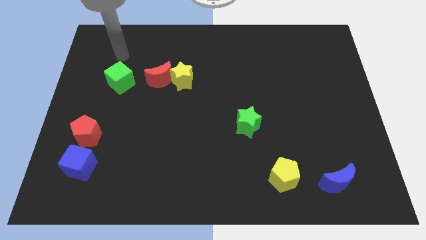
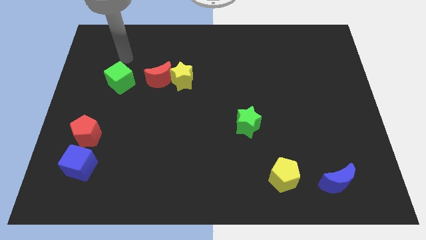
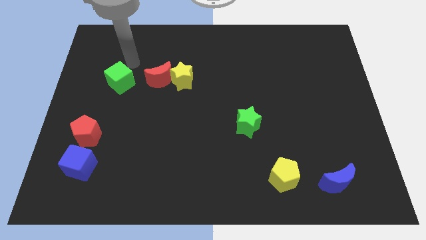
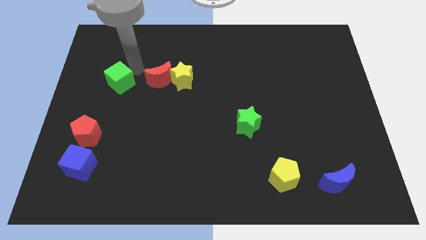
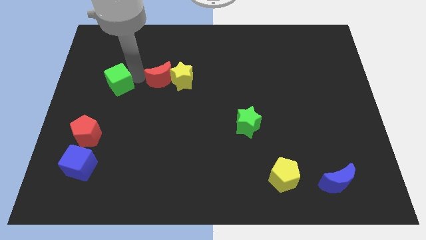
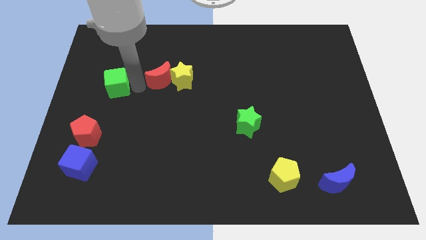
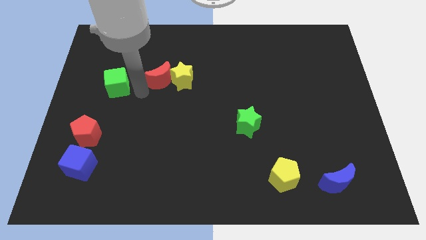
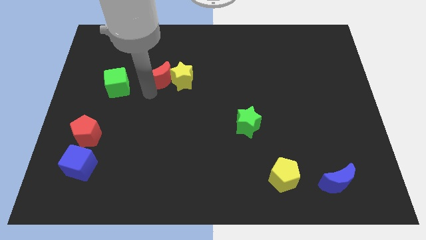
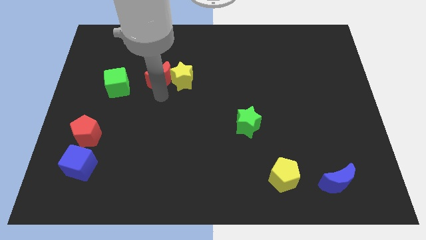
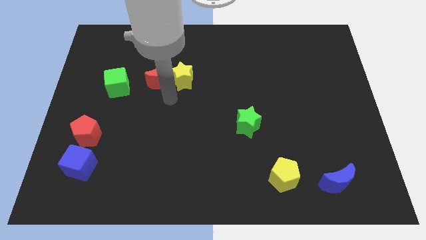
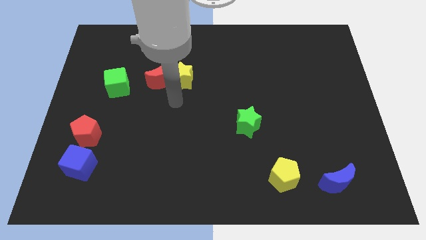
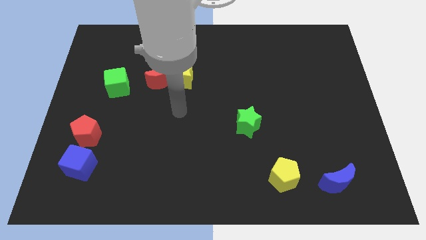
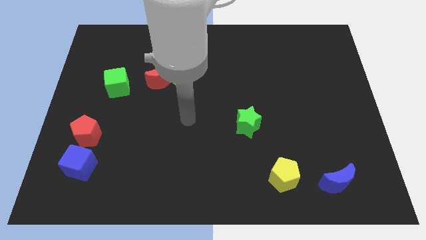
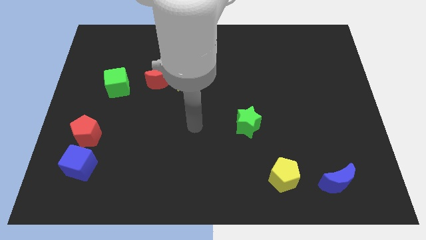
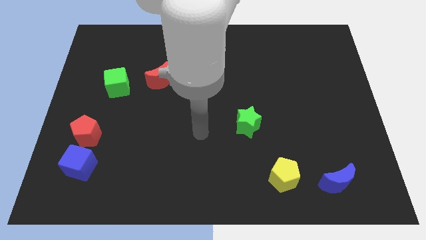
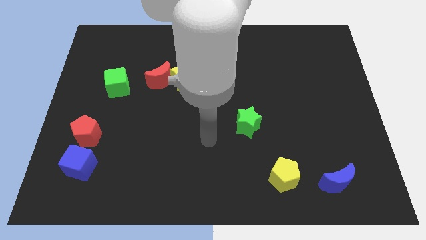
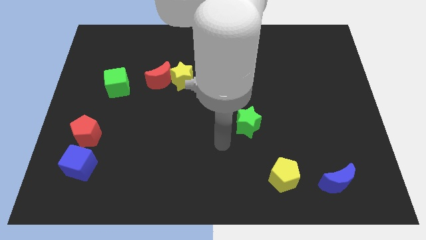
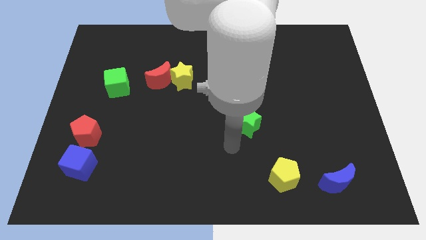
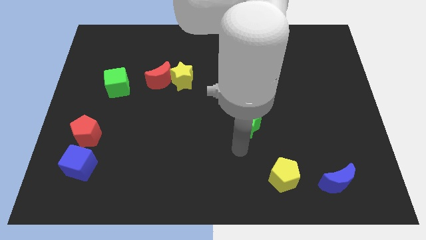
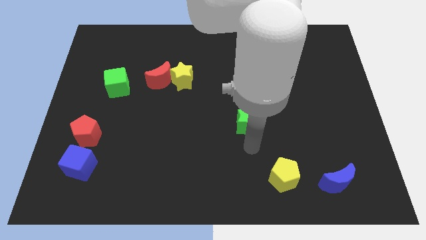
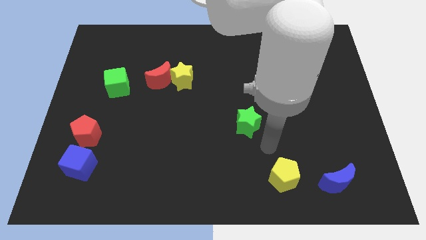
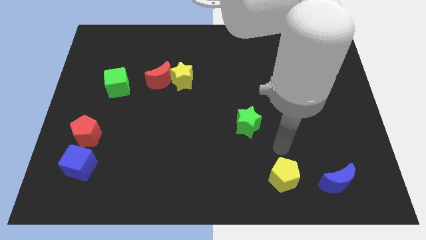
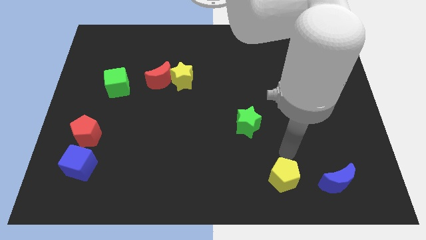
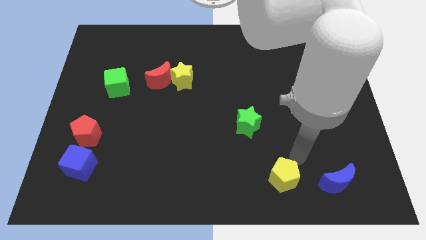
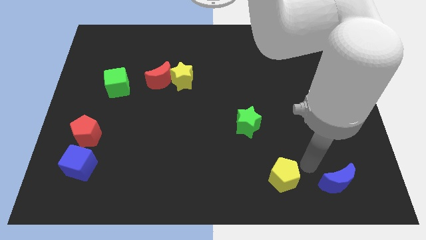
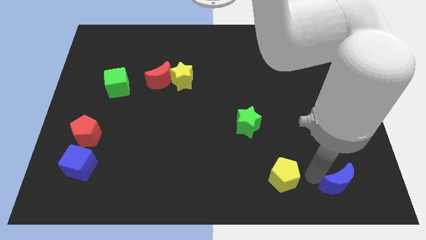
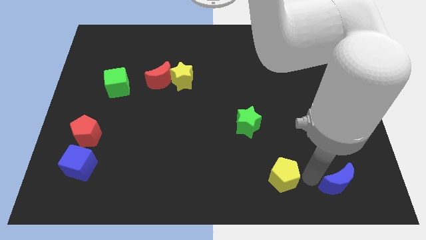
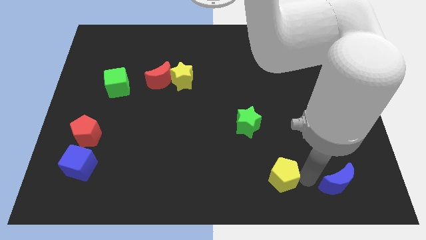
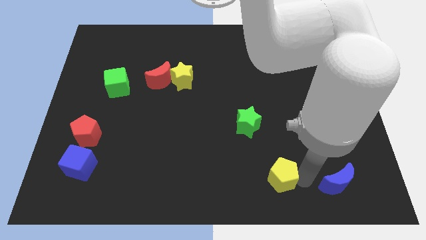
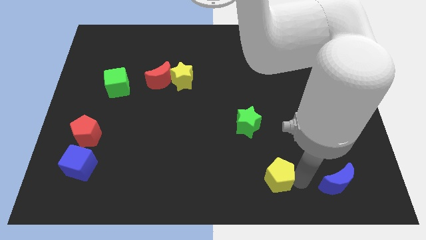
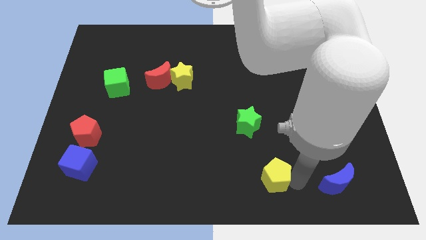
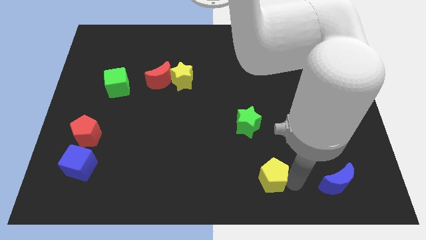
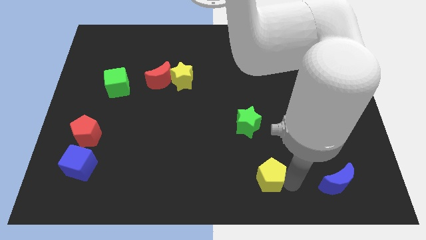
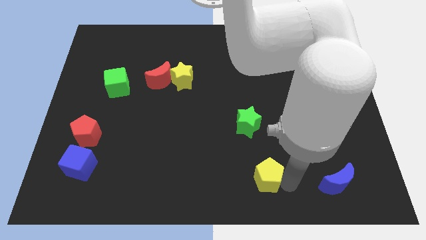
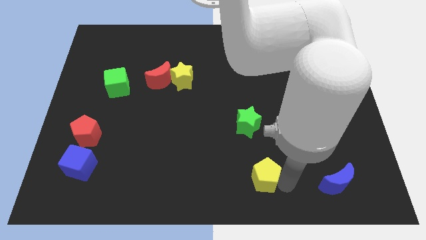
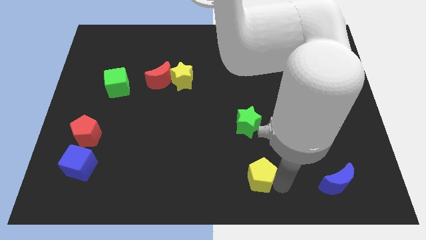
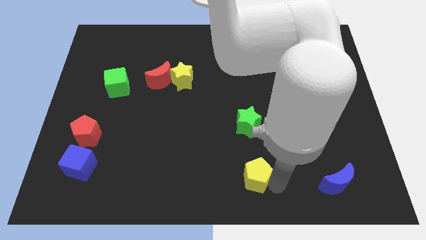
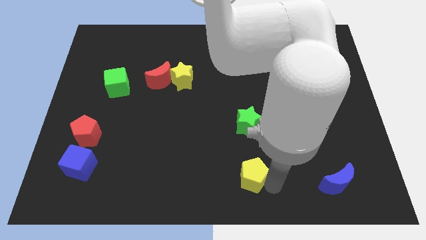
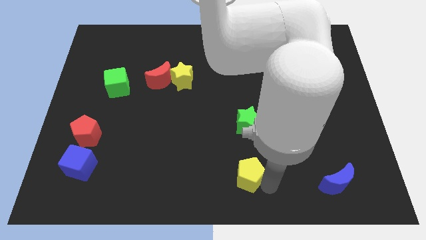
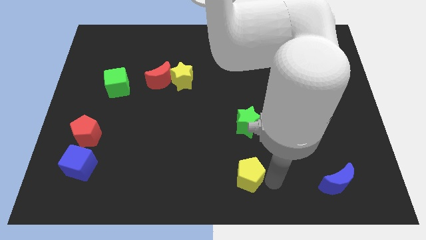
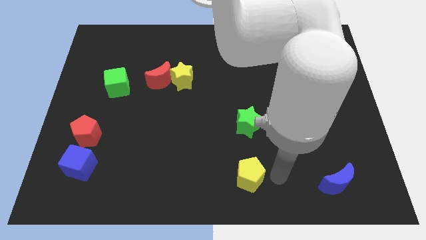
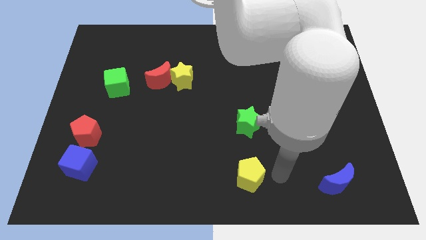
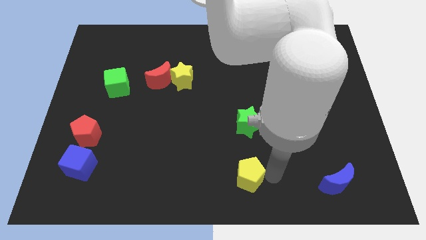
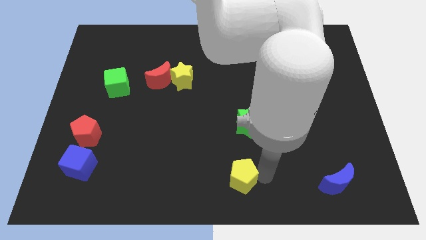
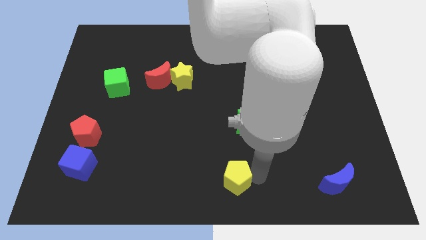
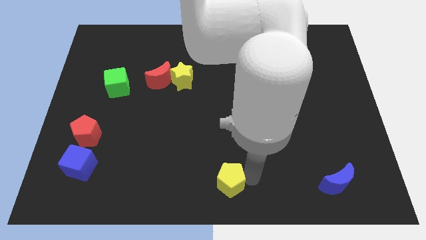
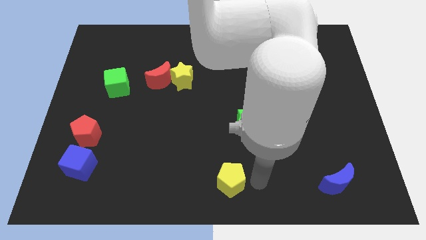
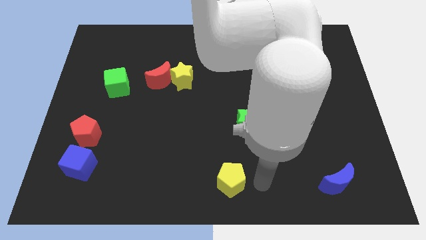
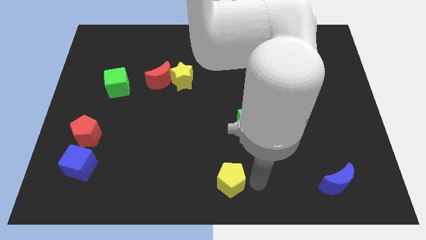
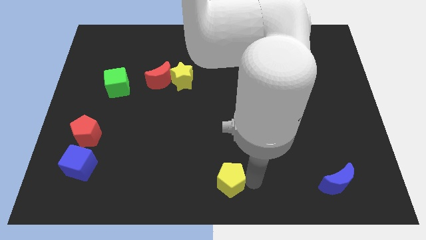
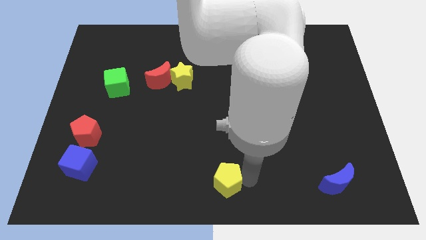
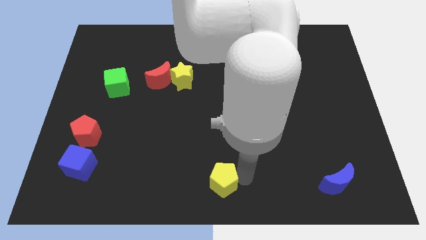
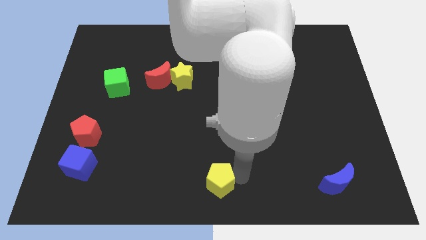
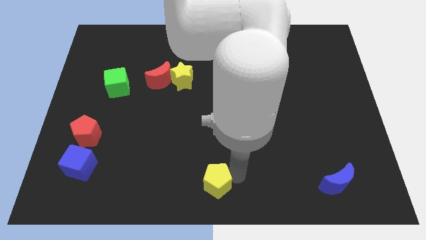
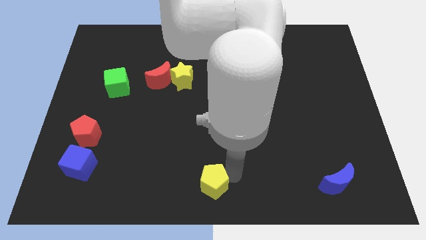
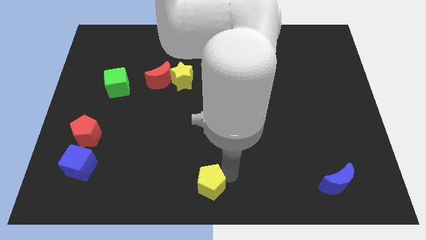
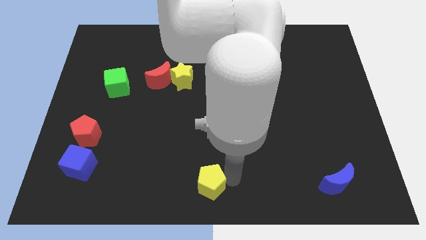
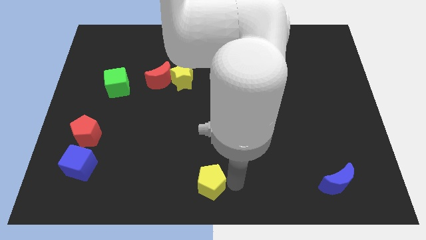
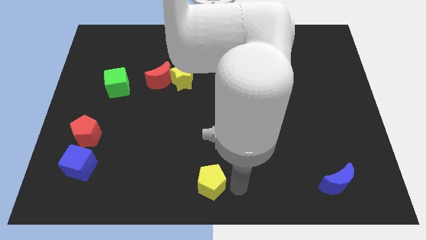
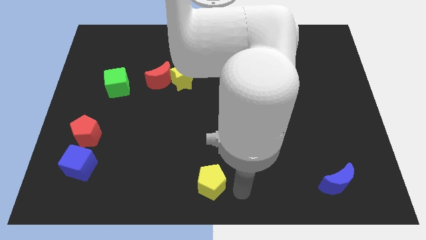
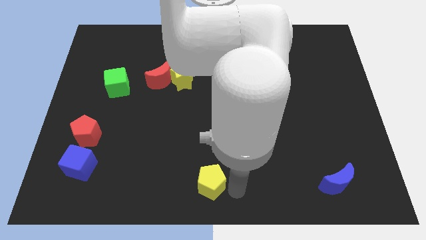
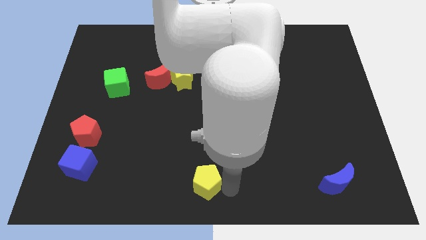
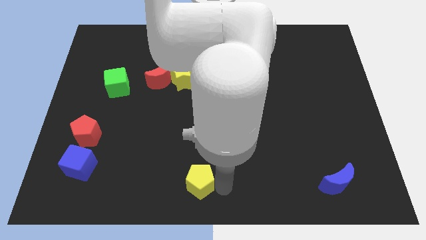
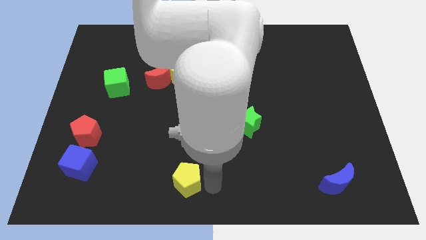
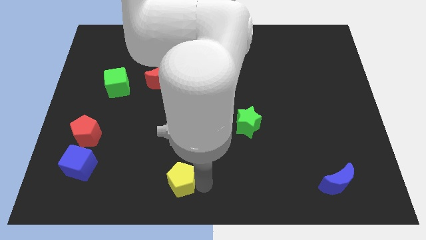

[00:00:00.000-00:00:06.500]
slide the yellow pentagon left

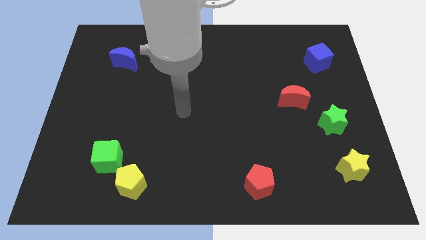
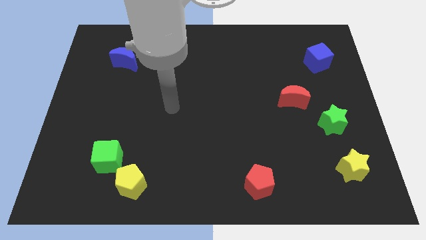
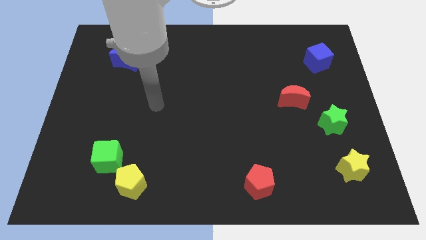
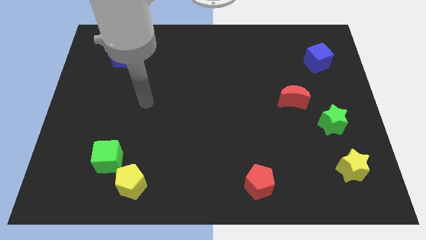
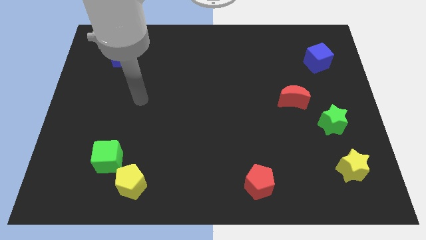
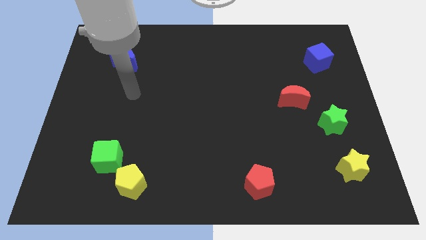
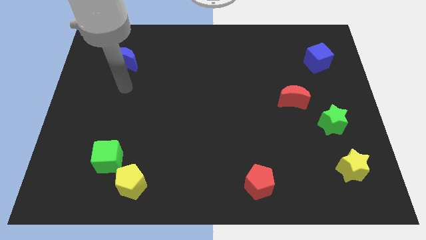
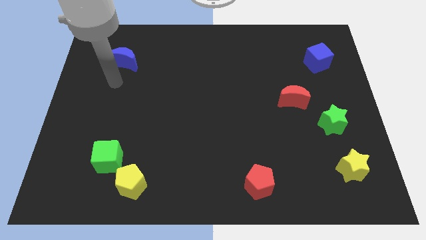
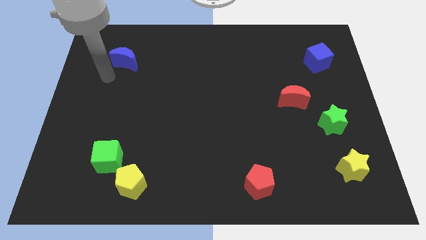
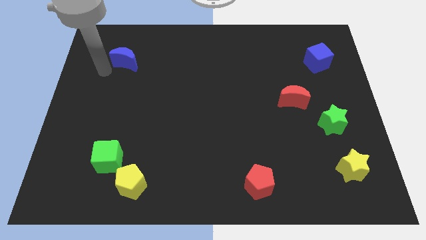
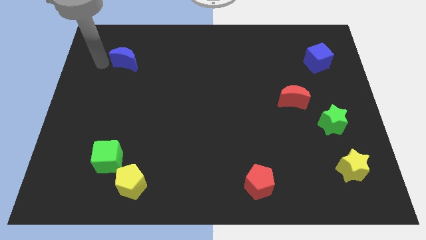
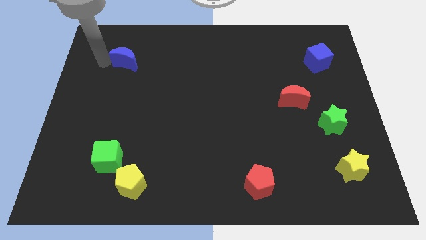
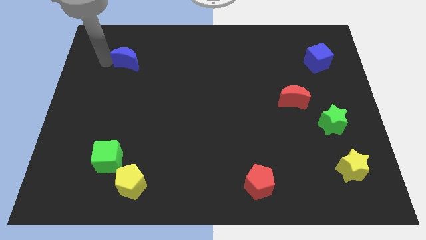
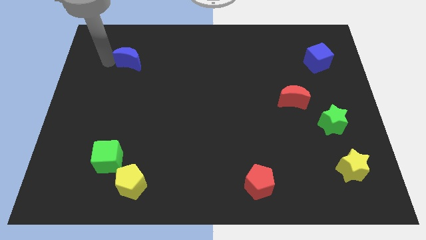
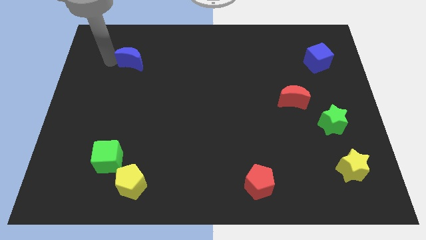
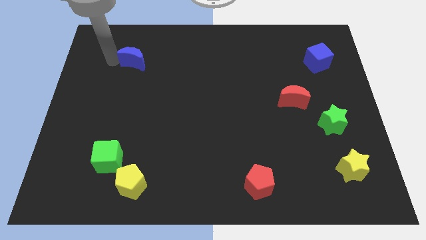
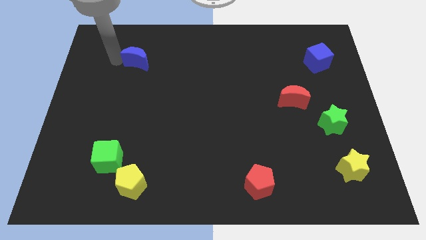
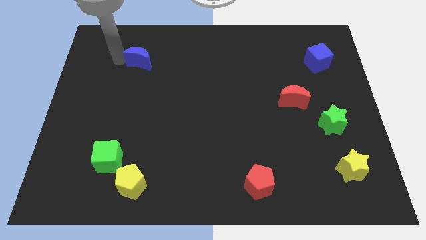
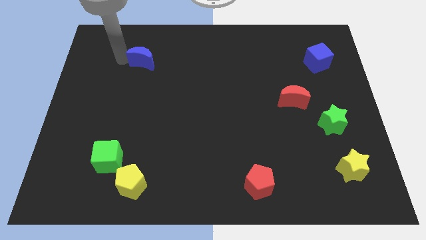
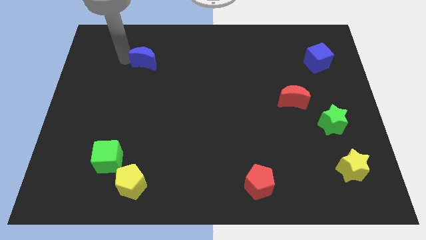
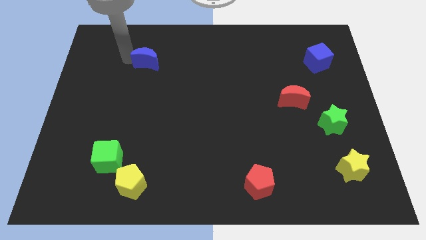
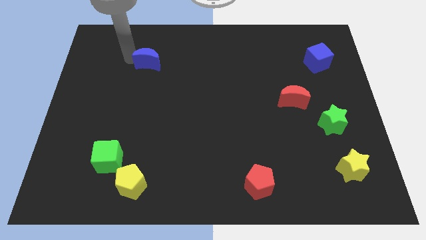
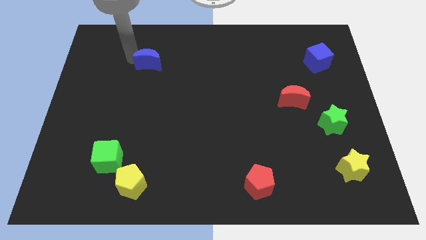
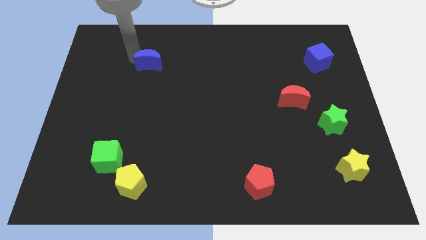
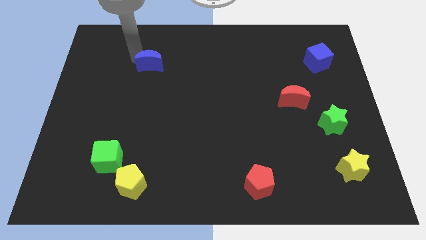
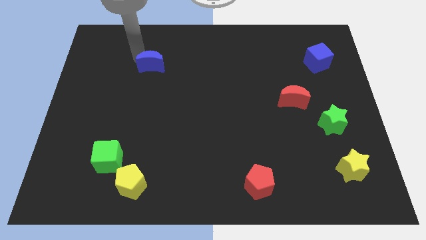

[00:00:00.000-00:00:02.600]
push the blue moon right slightly
